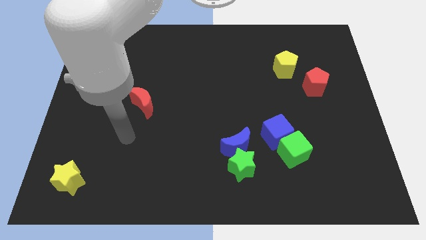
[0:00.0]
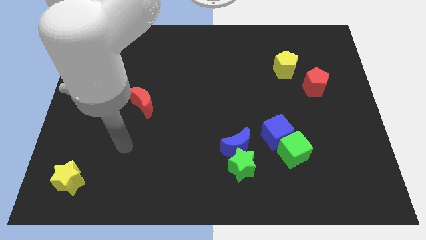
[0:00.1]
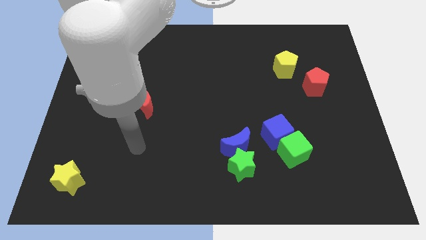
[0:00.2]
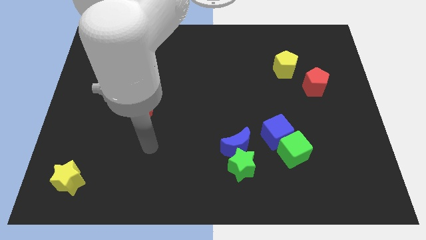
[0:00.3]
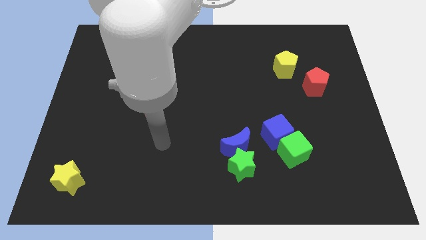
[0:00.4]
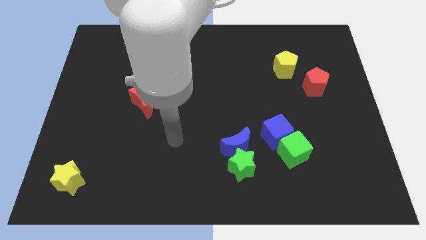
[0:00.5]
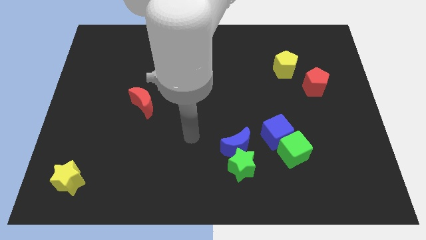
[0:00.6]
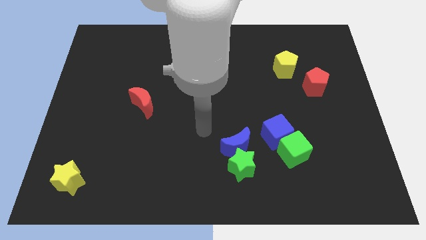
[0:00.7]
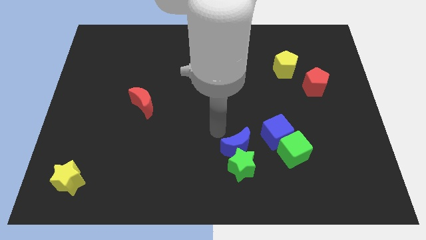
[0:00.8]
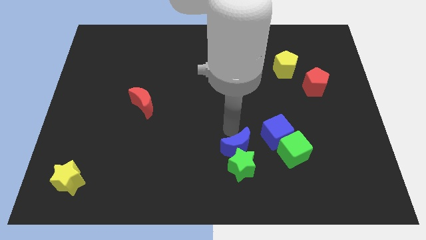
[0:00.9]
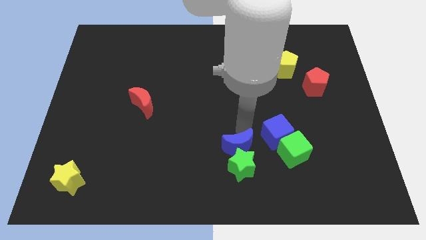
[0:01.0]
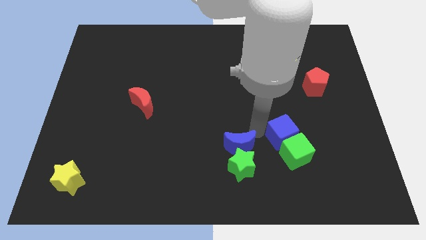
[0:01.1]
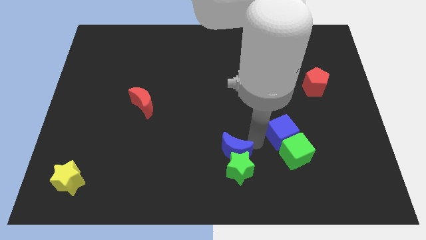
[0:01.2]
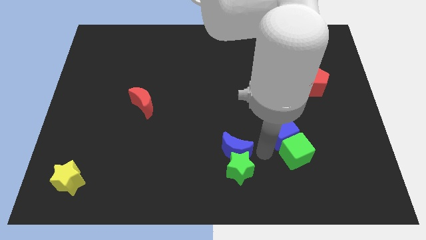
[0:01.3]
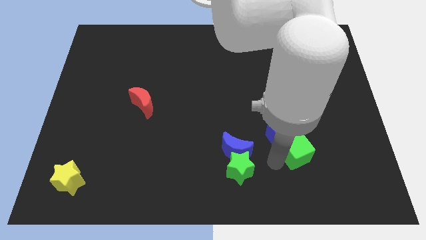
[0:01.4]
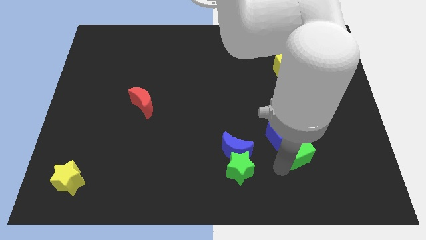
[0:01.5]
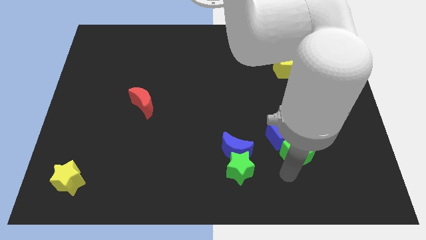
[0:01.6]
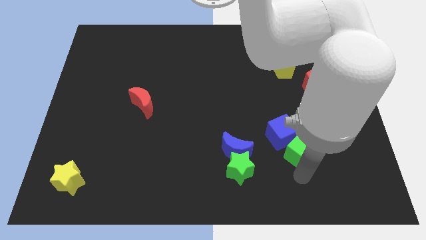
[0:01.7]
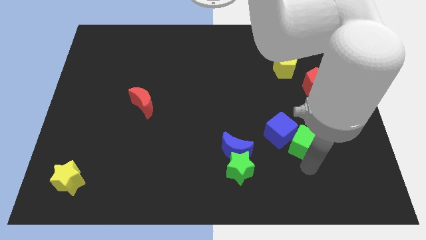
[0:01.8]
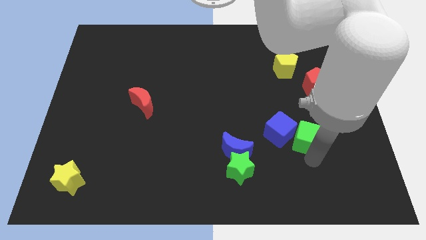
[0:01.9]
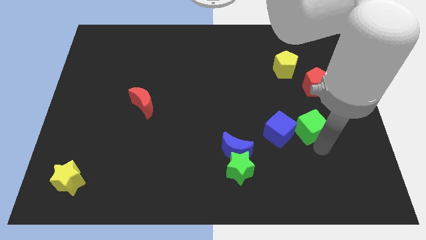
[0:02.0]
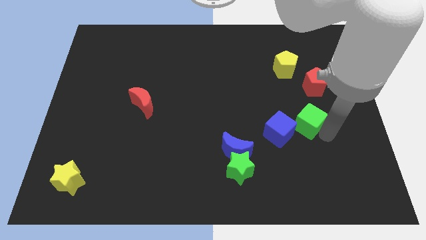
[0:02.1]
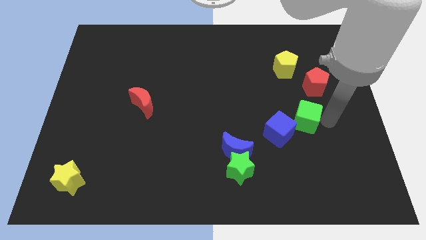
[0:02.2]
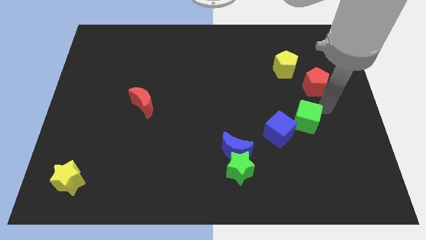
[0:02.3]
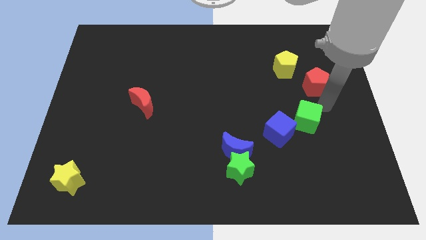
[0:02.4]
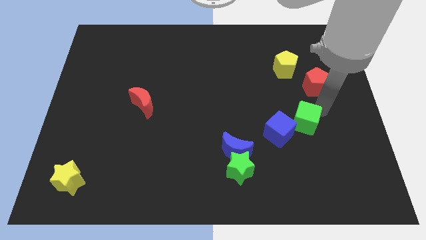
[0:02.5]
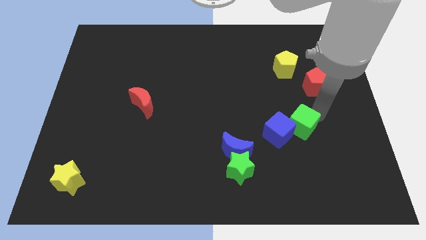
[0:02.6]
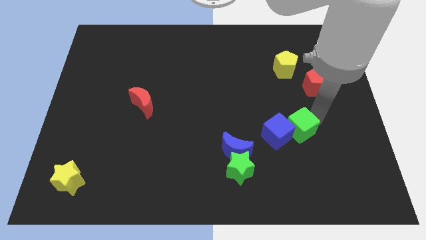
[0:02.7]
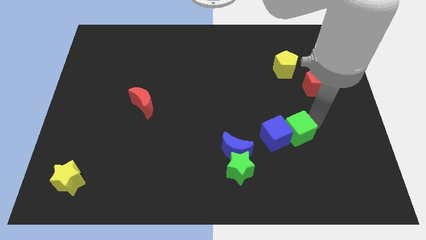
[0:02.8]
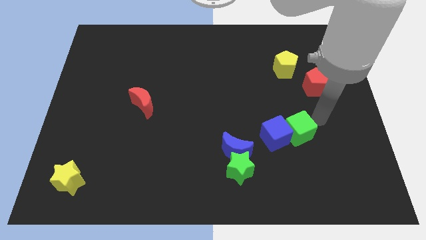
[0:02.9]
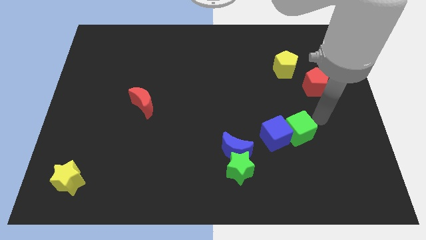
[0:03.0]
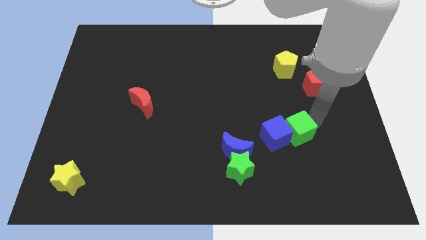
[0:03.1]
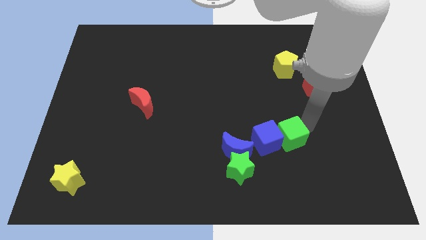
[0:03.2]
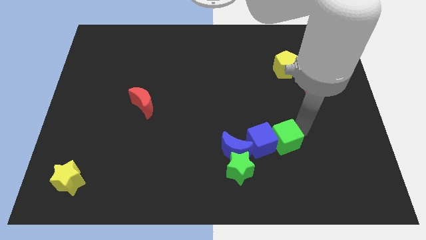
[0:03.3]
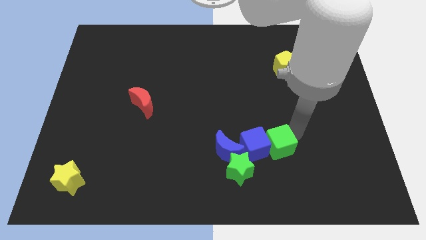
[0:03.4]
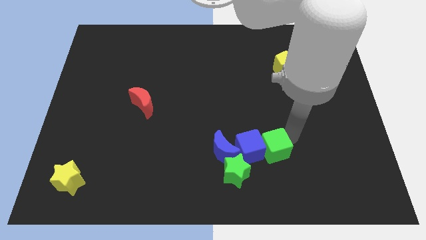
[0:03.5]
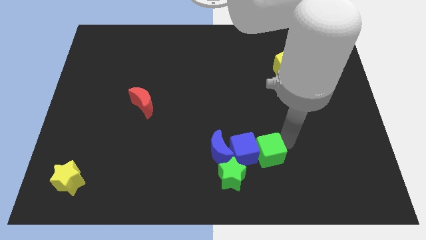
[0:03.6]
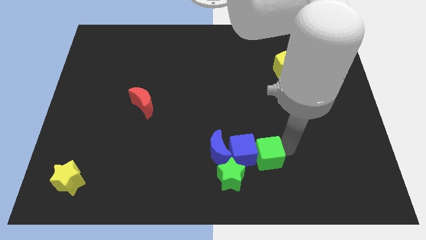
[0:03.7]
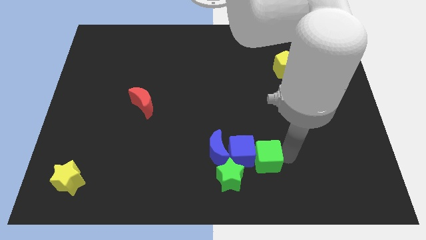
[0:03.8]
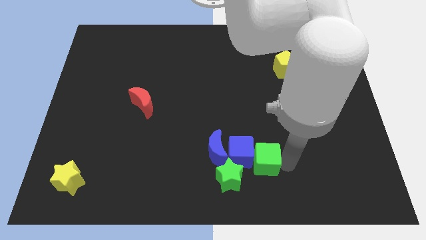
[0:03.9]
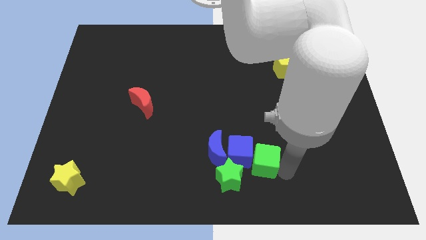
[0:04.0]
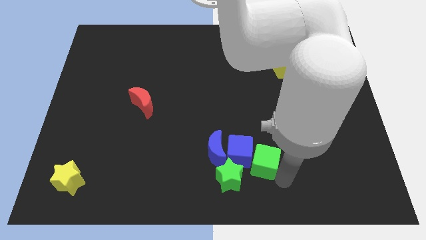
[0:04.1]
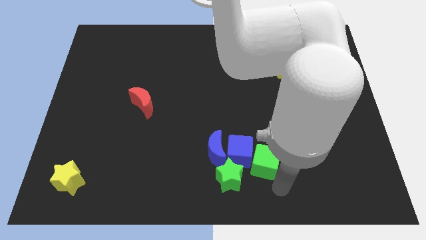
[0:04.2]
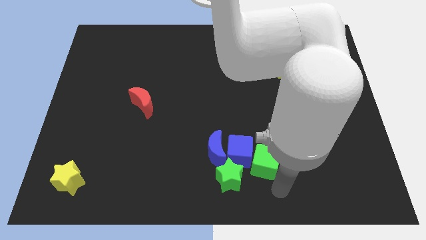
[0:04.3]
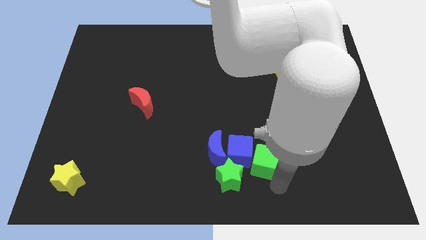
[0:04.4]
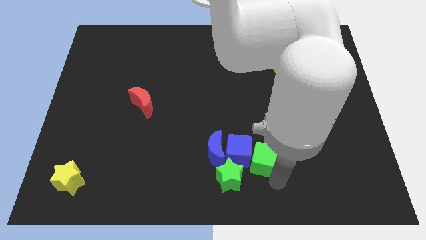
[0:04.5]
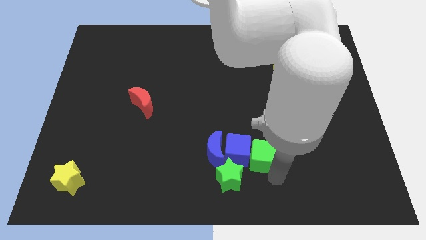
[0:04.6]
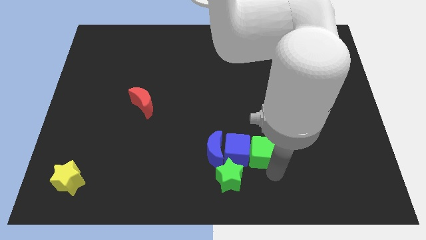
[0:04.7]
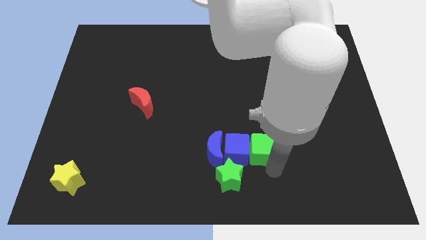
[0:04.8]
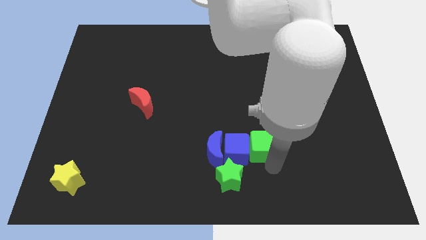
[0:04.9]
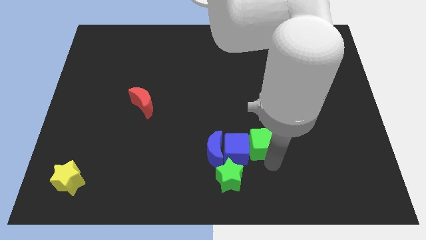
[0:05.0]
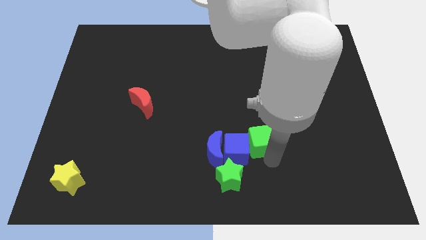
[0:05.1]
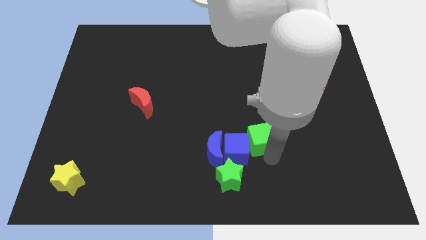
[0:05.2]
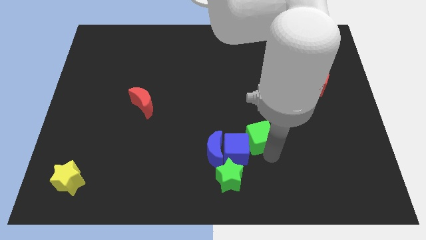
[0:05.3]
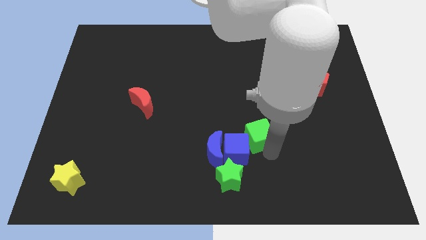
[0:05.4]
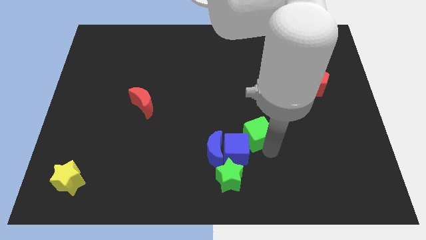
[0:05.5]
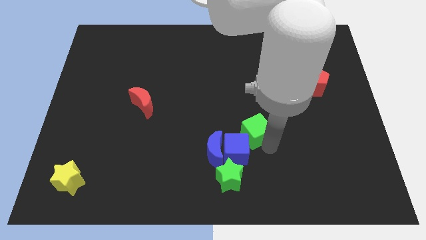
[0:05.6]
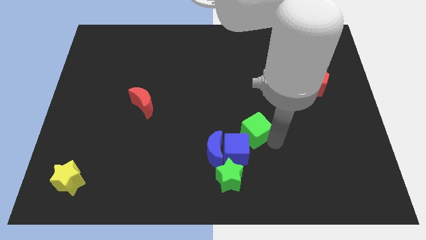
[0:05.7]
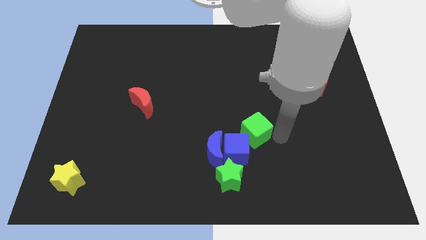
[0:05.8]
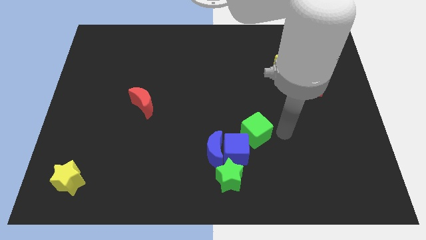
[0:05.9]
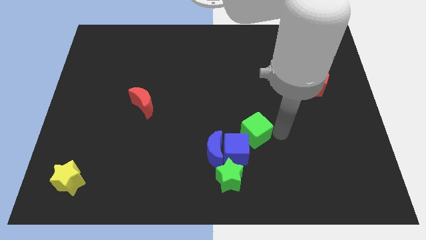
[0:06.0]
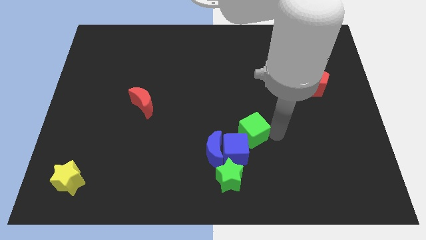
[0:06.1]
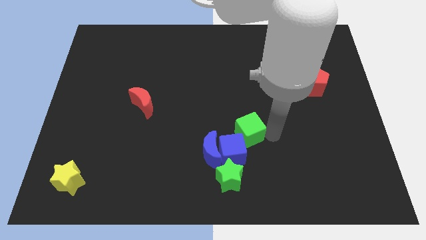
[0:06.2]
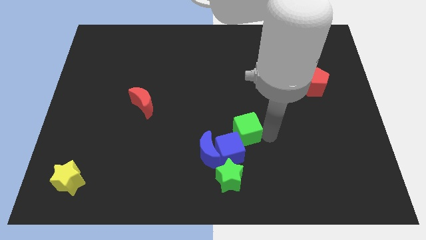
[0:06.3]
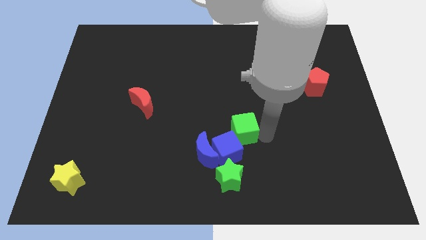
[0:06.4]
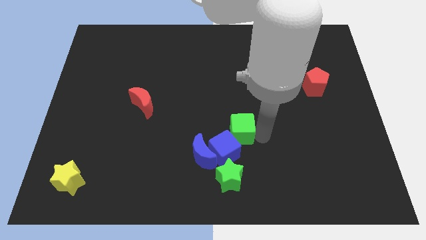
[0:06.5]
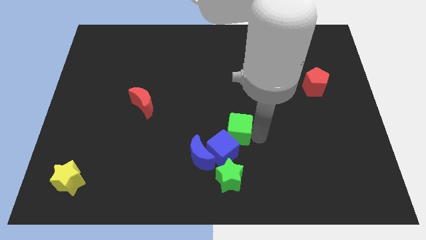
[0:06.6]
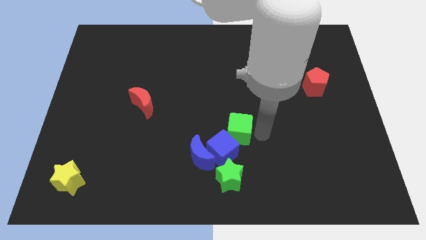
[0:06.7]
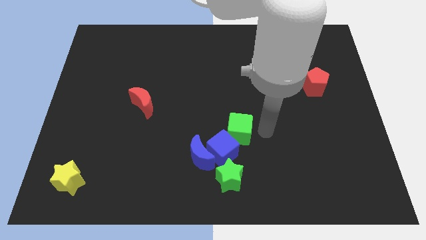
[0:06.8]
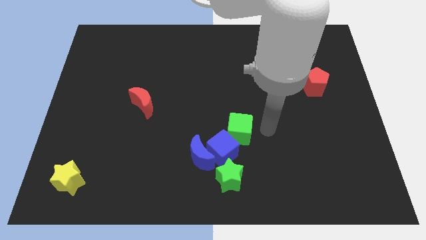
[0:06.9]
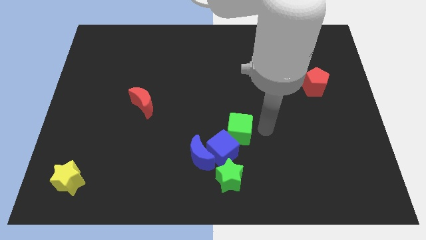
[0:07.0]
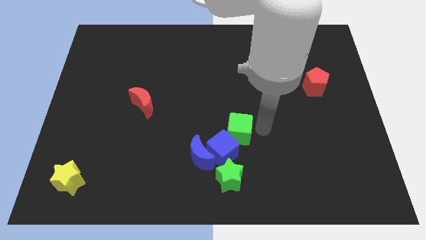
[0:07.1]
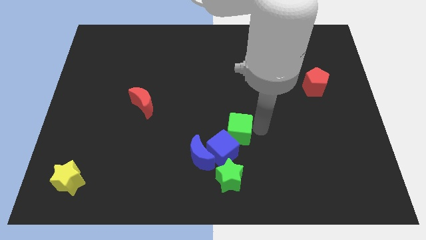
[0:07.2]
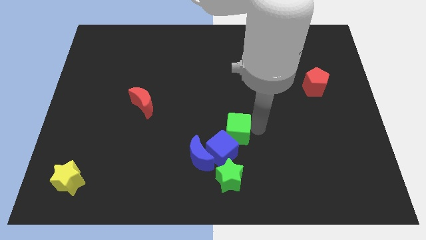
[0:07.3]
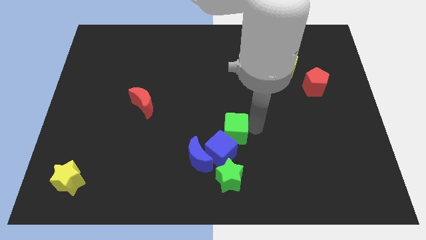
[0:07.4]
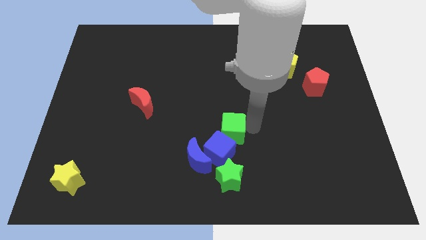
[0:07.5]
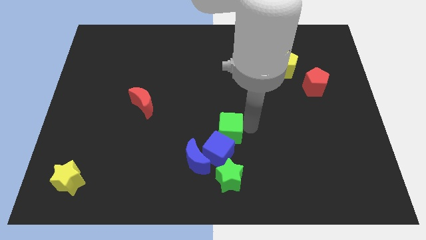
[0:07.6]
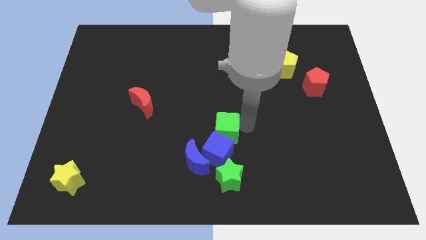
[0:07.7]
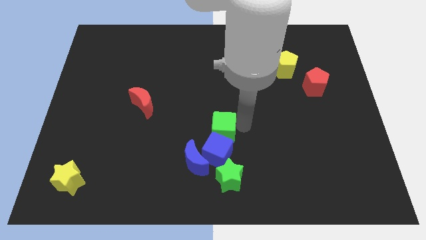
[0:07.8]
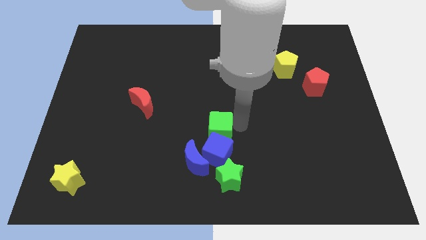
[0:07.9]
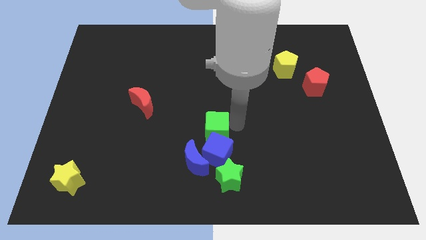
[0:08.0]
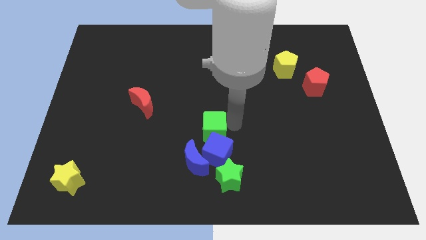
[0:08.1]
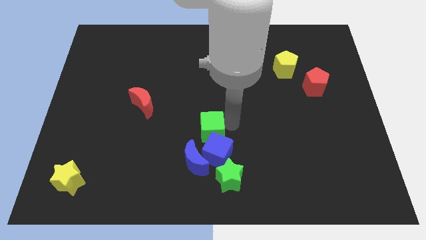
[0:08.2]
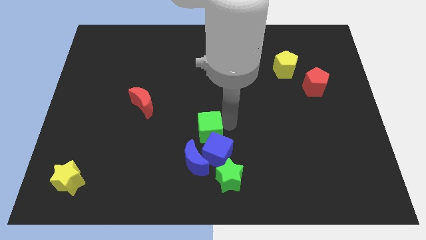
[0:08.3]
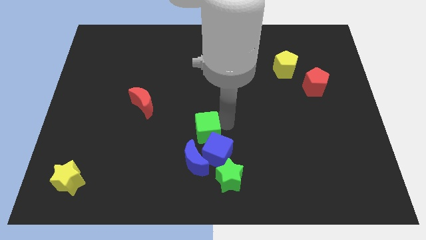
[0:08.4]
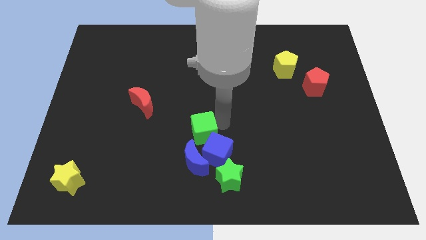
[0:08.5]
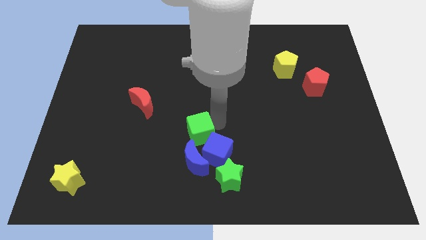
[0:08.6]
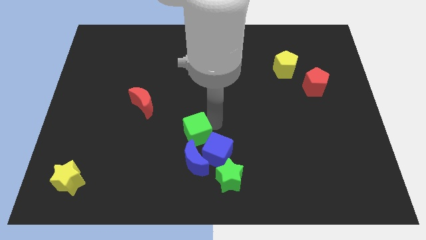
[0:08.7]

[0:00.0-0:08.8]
slide the green cube left
